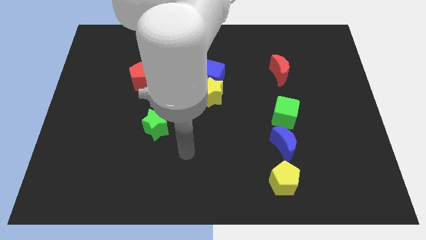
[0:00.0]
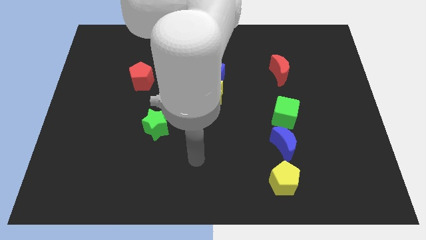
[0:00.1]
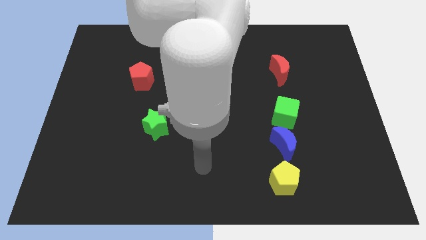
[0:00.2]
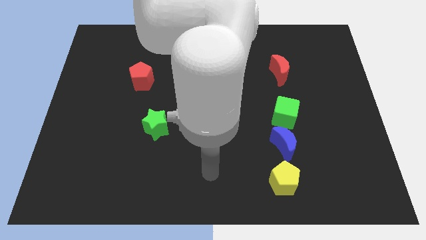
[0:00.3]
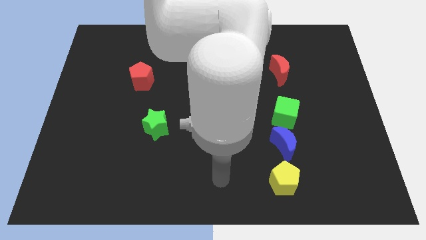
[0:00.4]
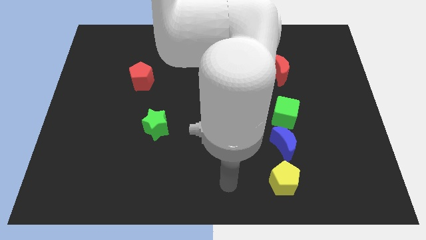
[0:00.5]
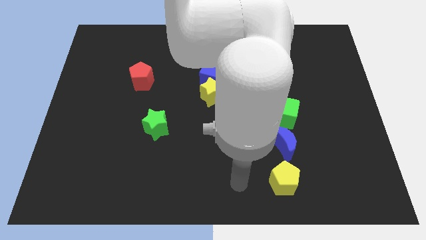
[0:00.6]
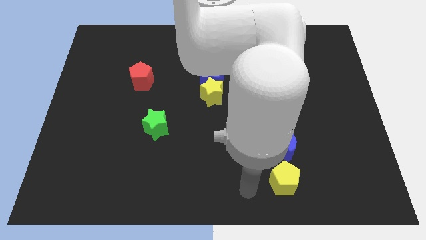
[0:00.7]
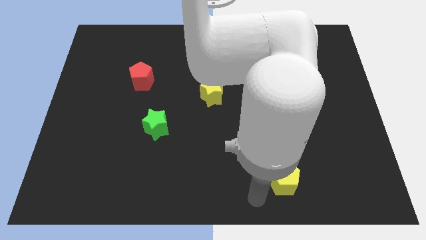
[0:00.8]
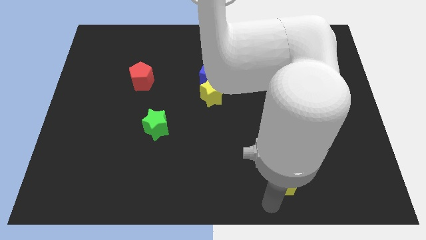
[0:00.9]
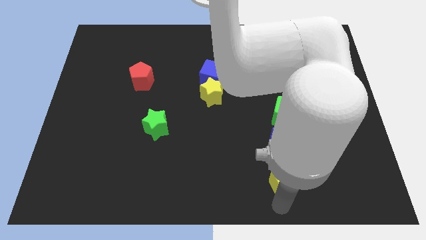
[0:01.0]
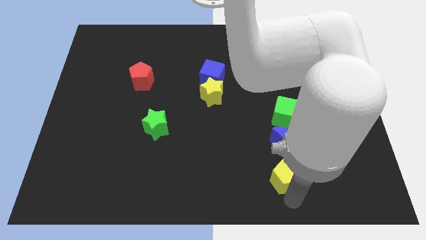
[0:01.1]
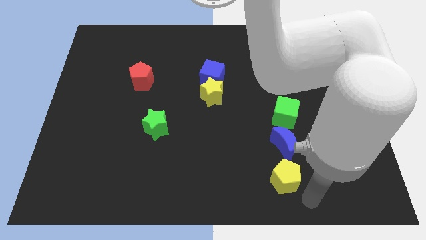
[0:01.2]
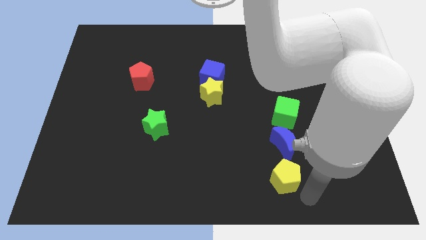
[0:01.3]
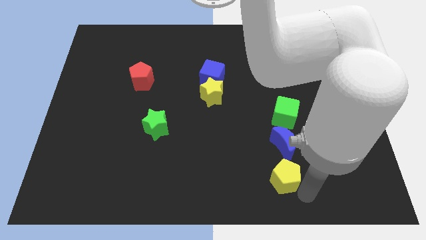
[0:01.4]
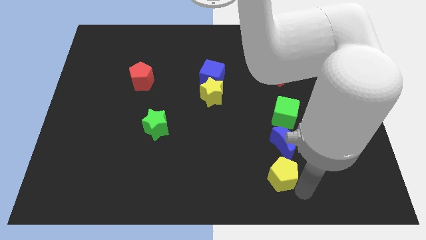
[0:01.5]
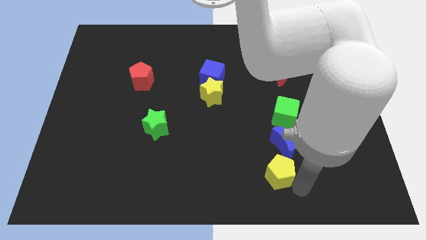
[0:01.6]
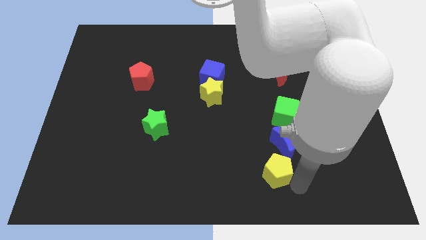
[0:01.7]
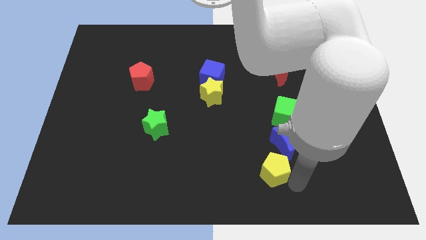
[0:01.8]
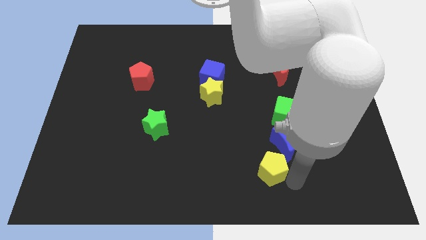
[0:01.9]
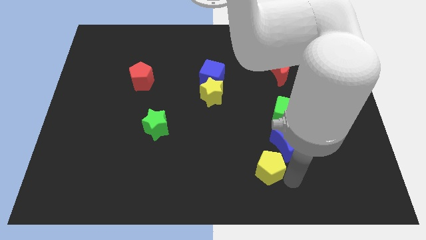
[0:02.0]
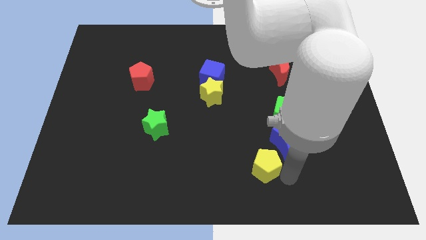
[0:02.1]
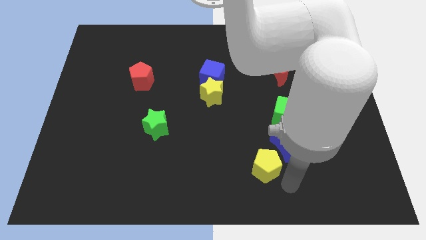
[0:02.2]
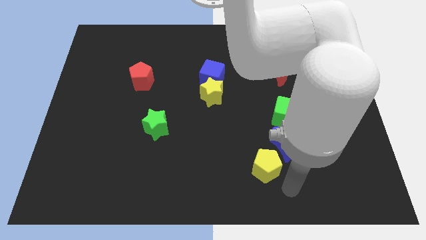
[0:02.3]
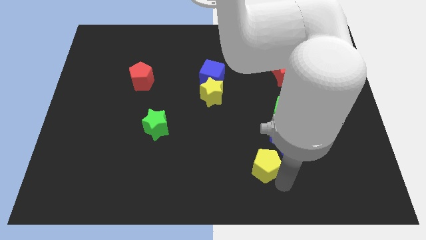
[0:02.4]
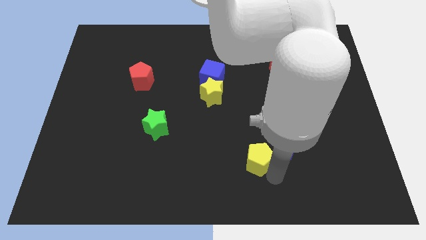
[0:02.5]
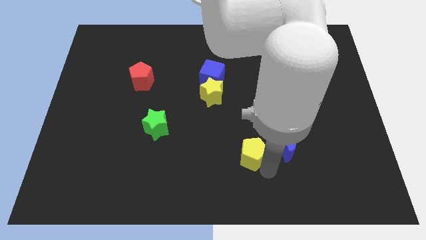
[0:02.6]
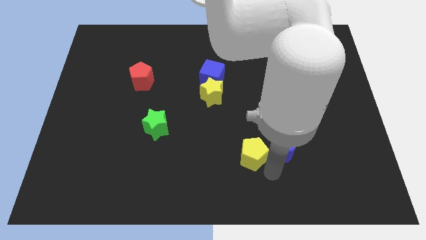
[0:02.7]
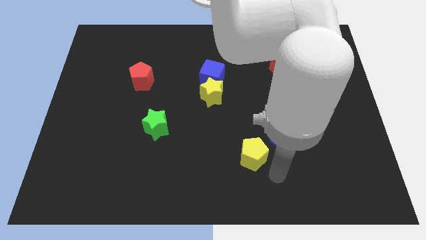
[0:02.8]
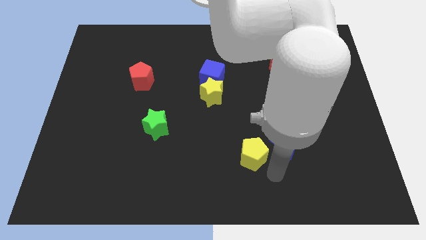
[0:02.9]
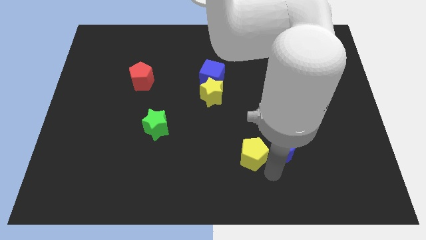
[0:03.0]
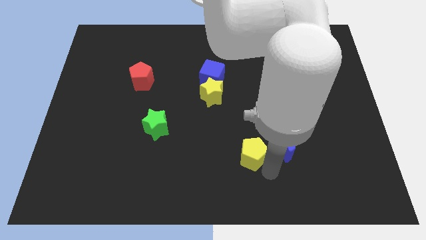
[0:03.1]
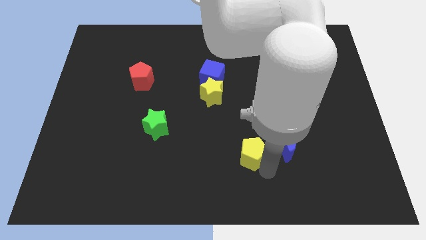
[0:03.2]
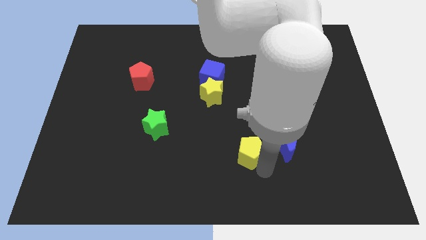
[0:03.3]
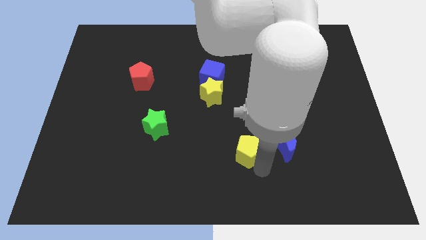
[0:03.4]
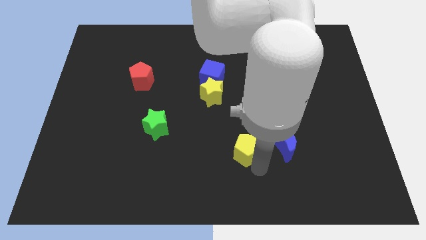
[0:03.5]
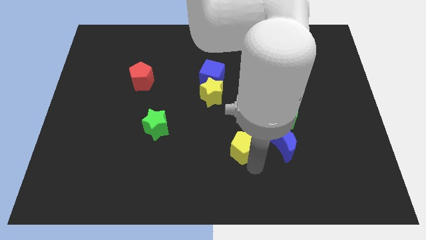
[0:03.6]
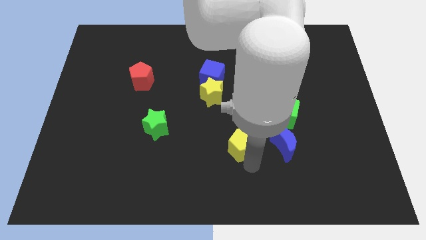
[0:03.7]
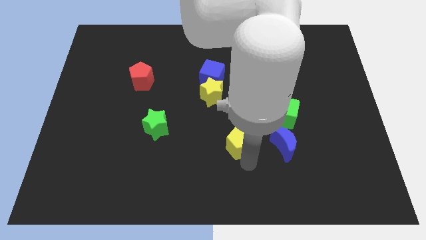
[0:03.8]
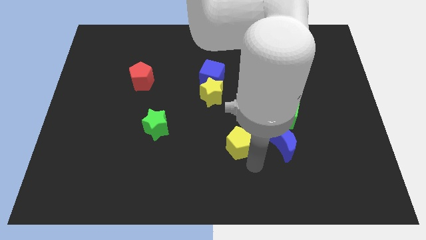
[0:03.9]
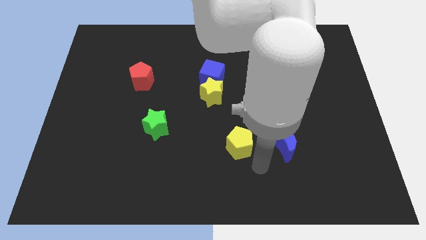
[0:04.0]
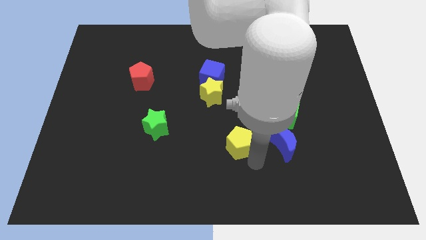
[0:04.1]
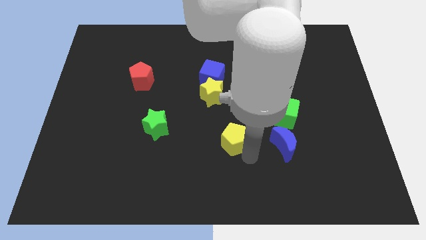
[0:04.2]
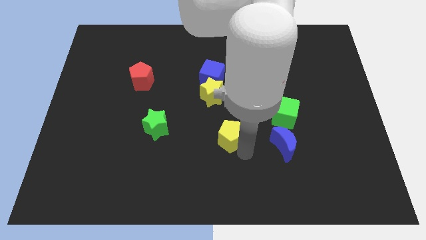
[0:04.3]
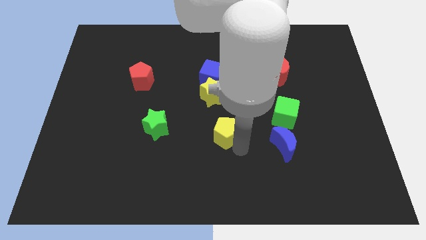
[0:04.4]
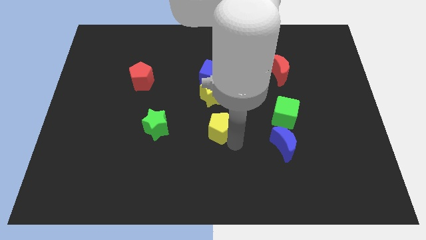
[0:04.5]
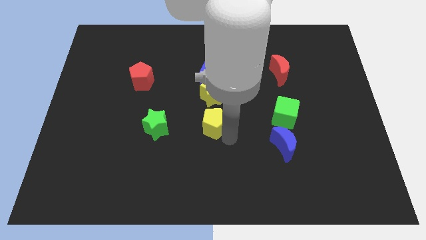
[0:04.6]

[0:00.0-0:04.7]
push the yellow pentagon upwards and left

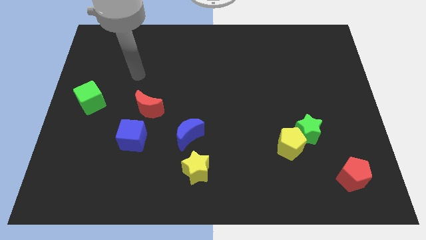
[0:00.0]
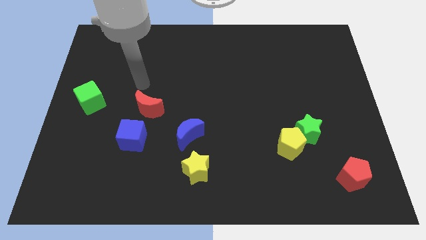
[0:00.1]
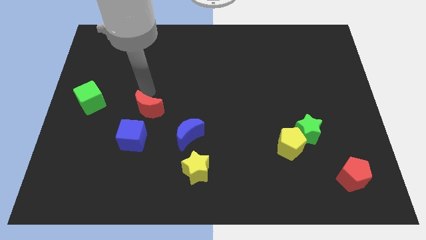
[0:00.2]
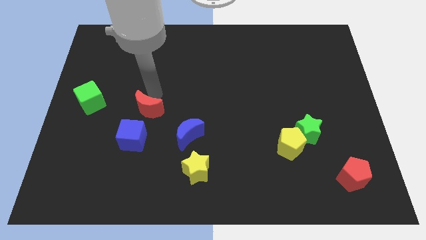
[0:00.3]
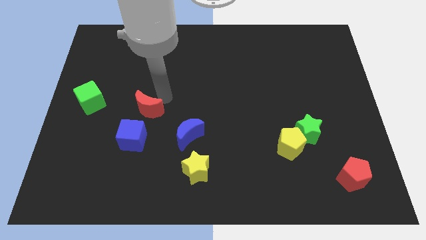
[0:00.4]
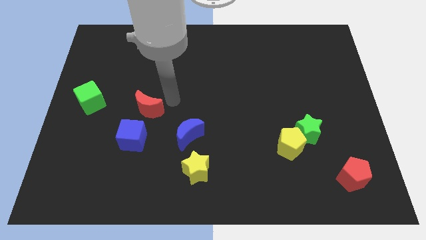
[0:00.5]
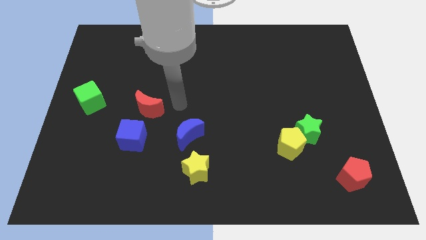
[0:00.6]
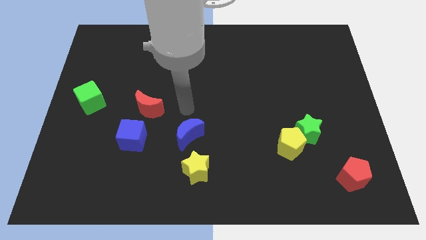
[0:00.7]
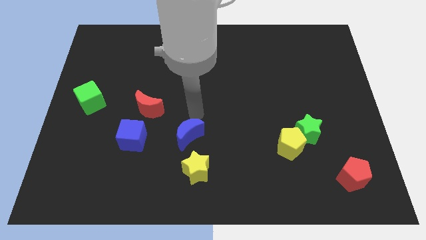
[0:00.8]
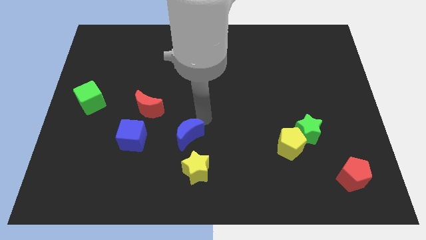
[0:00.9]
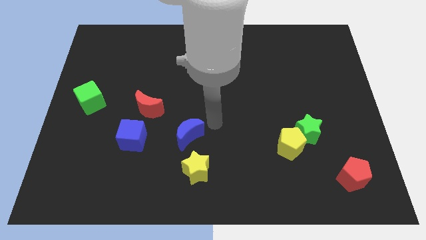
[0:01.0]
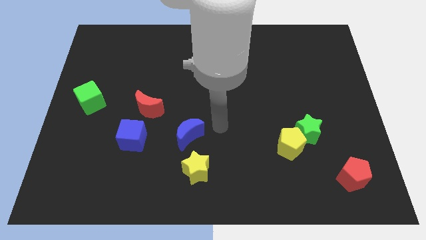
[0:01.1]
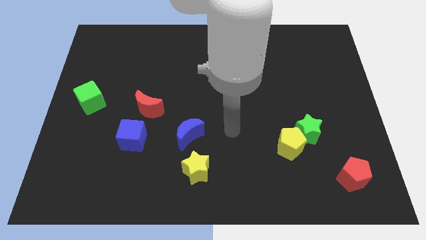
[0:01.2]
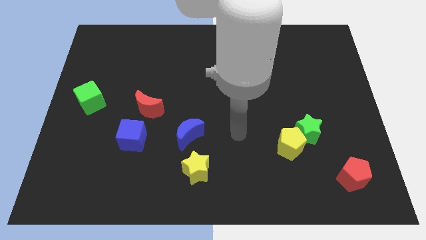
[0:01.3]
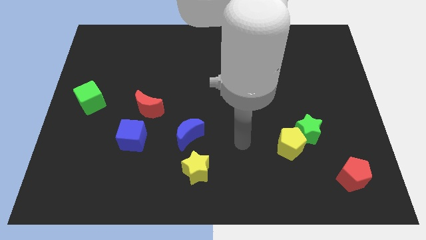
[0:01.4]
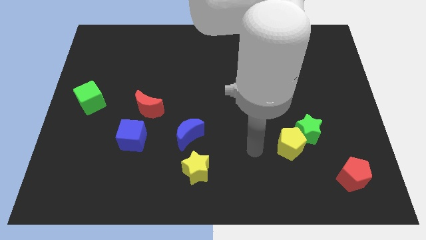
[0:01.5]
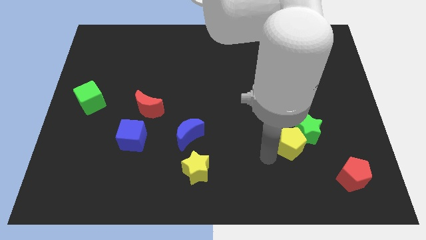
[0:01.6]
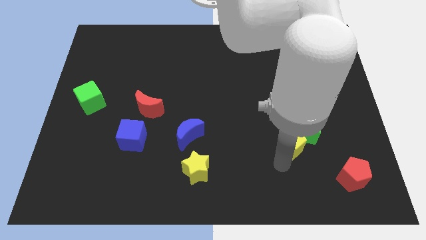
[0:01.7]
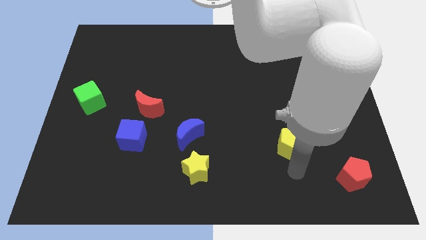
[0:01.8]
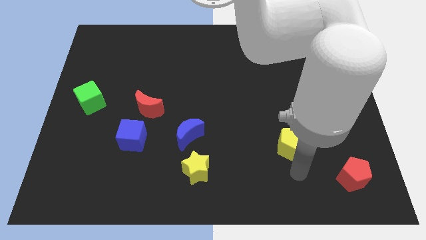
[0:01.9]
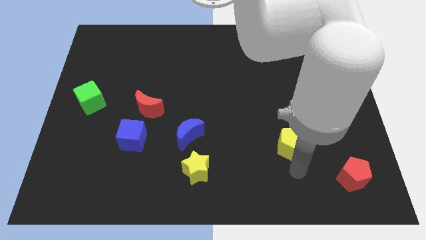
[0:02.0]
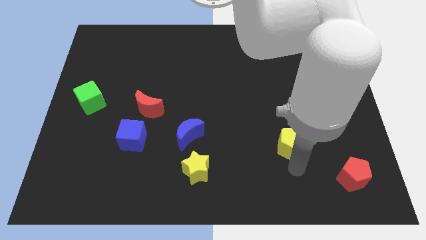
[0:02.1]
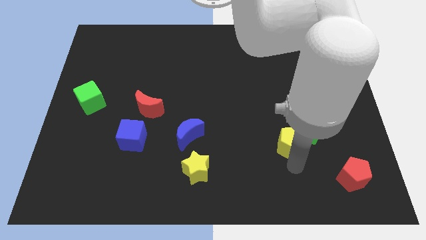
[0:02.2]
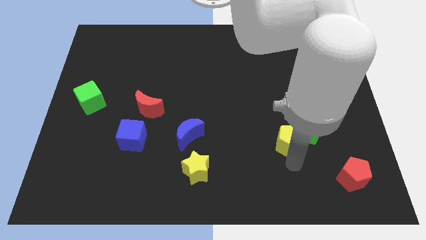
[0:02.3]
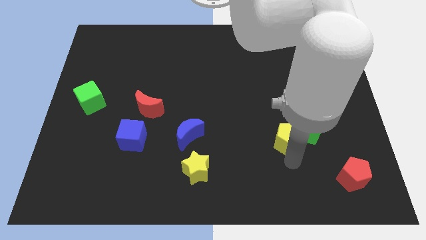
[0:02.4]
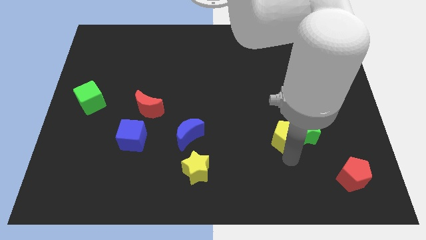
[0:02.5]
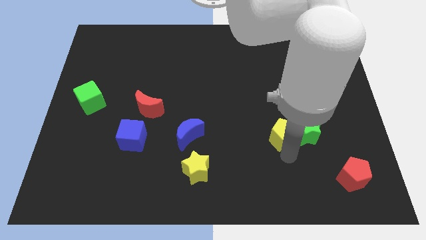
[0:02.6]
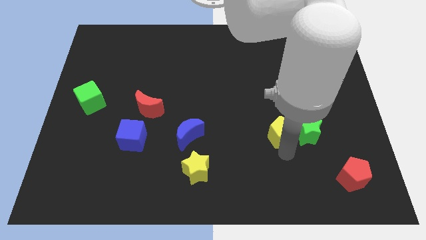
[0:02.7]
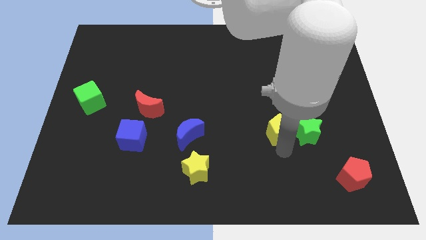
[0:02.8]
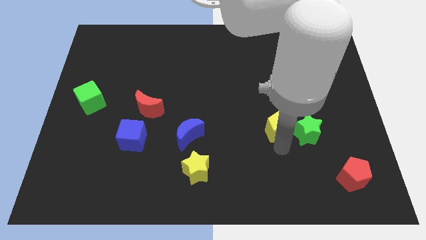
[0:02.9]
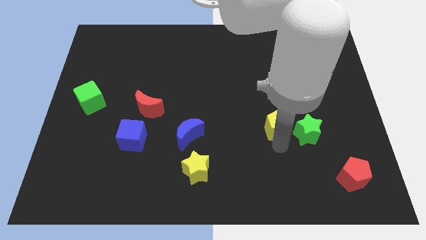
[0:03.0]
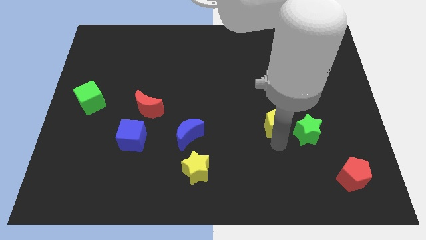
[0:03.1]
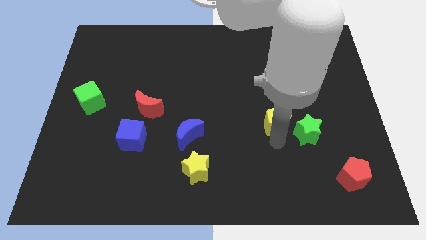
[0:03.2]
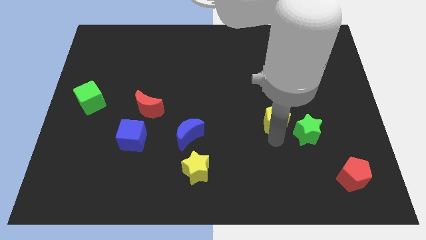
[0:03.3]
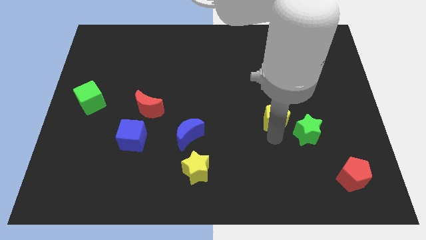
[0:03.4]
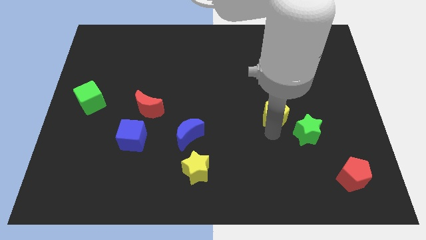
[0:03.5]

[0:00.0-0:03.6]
move the yellow pentagon somewhat upwards
